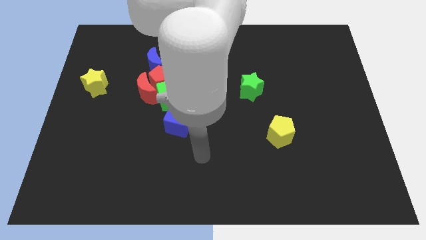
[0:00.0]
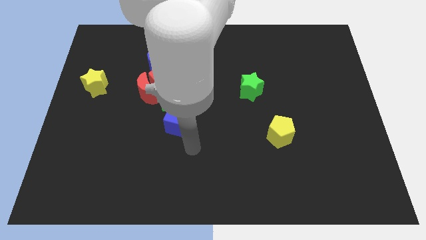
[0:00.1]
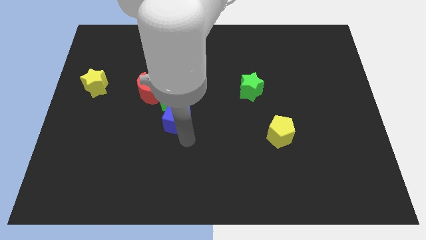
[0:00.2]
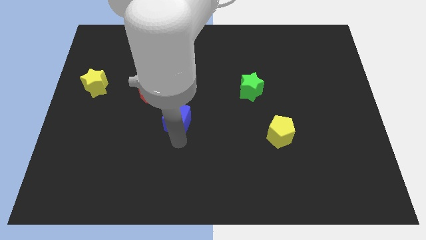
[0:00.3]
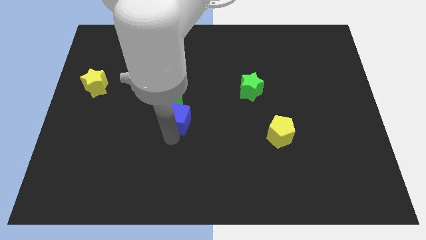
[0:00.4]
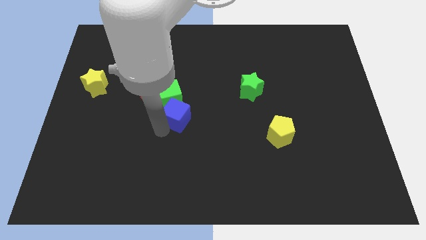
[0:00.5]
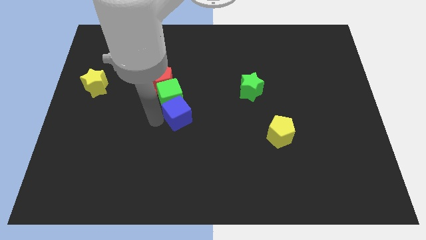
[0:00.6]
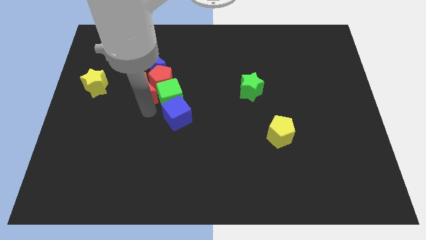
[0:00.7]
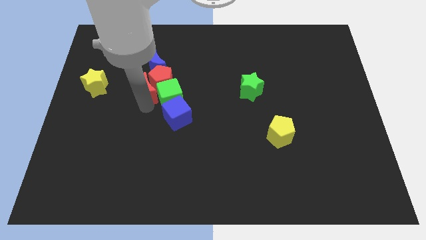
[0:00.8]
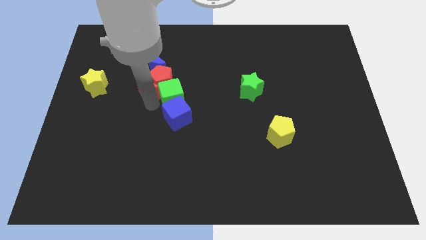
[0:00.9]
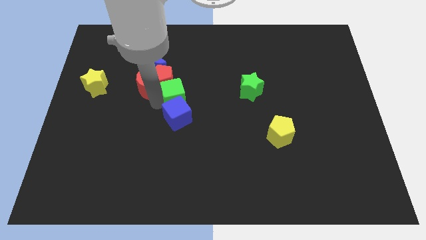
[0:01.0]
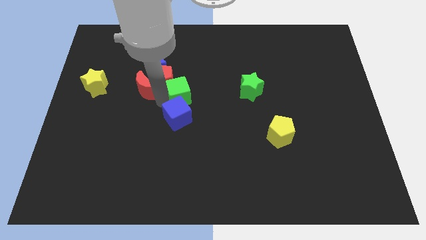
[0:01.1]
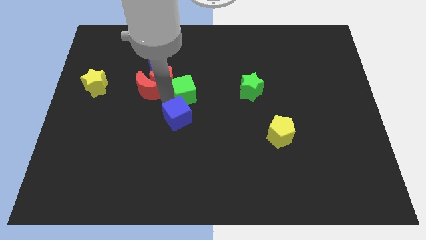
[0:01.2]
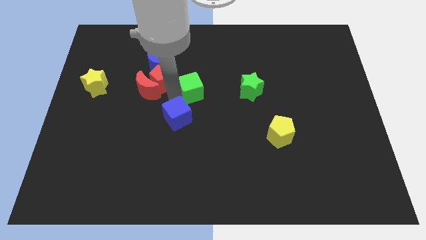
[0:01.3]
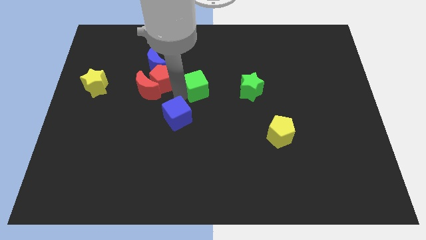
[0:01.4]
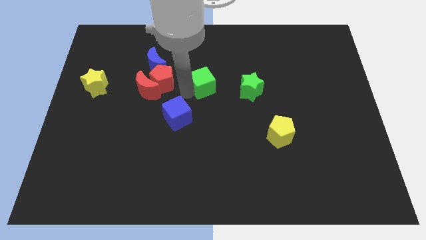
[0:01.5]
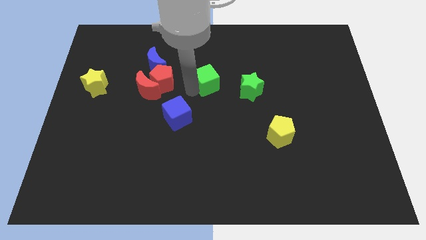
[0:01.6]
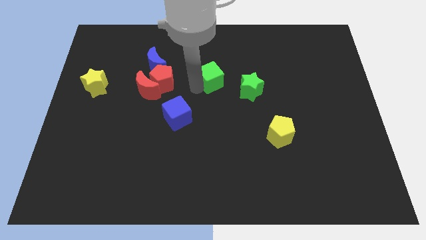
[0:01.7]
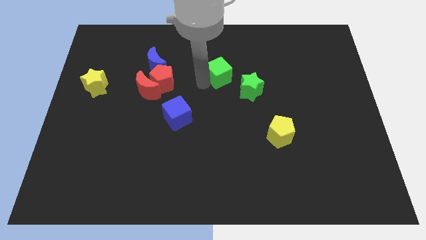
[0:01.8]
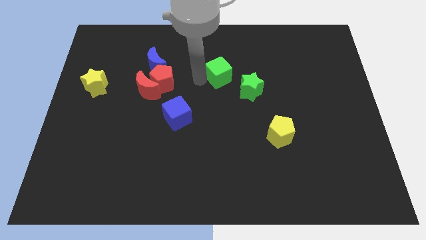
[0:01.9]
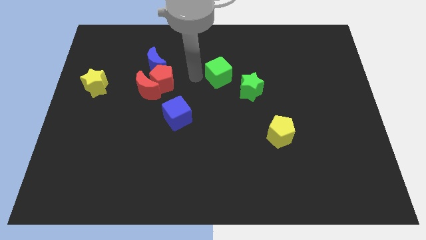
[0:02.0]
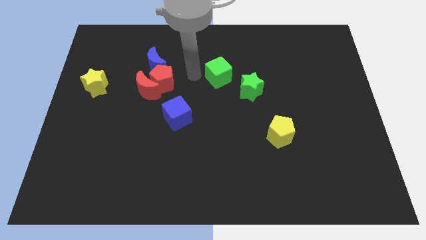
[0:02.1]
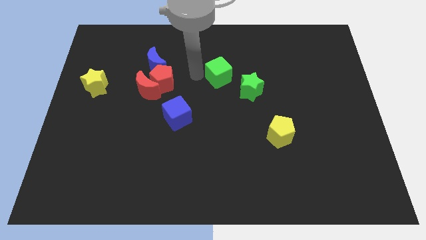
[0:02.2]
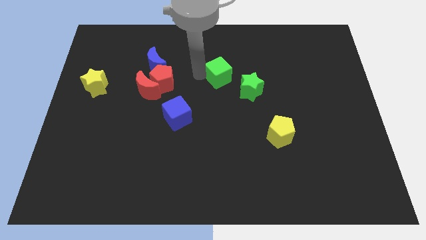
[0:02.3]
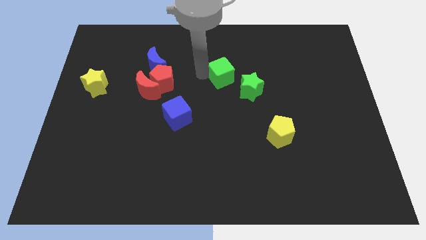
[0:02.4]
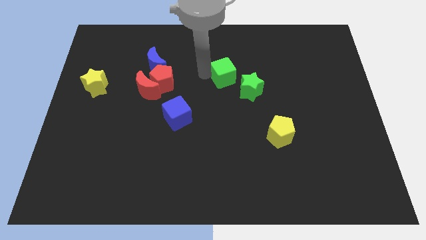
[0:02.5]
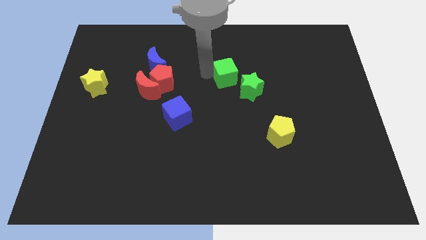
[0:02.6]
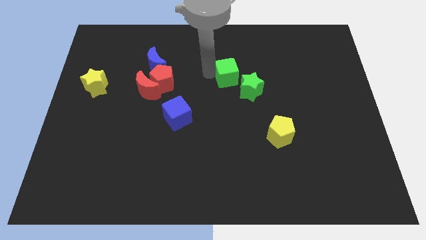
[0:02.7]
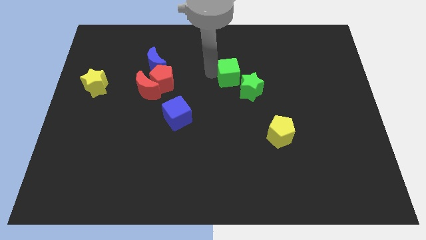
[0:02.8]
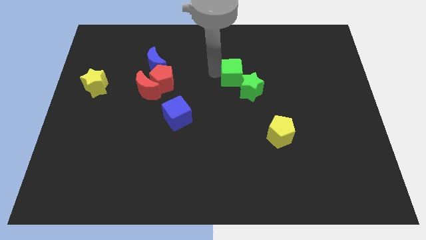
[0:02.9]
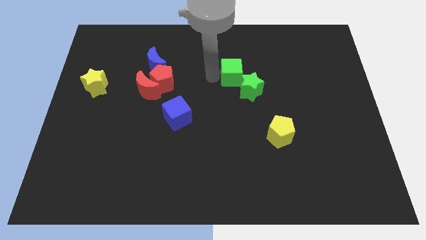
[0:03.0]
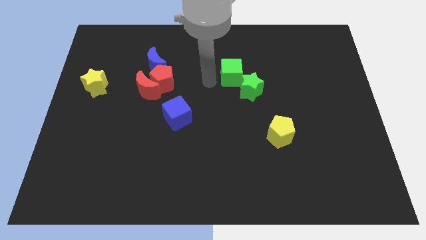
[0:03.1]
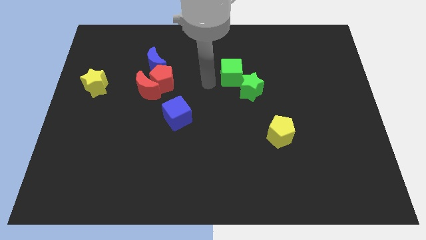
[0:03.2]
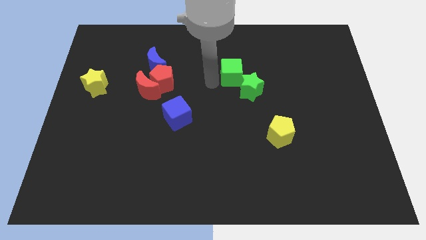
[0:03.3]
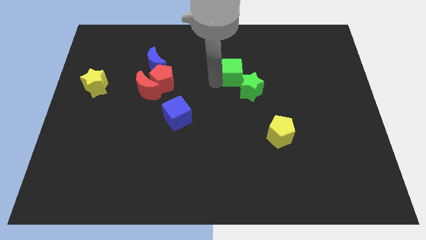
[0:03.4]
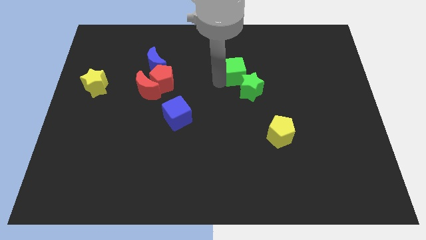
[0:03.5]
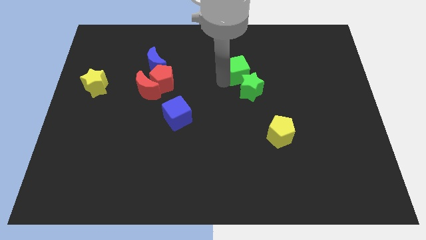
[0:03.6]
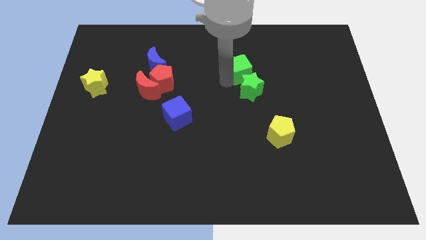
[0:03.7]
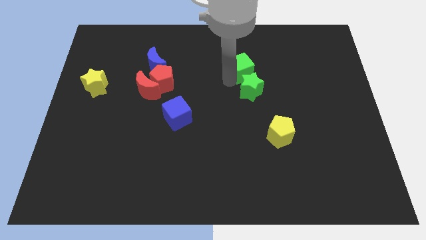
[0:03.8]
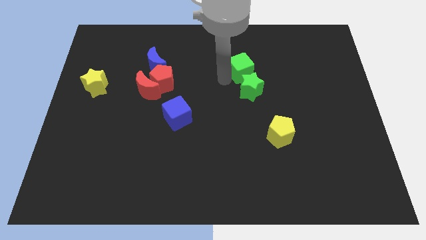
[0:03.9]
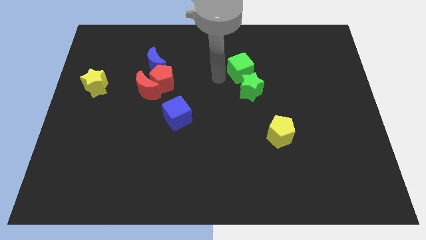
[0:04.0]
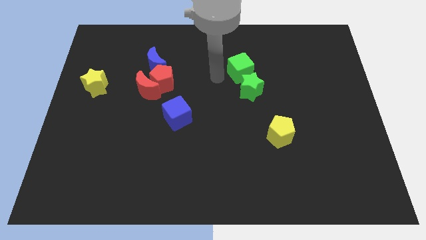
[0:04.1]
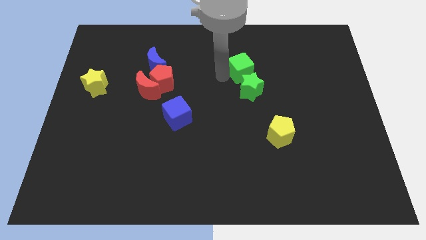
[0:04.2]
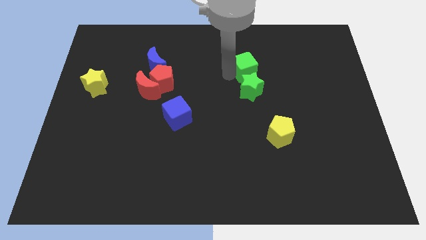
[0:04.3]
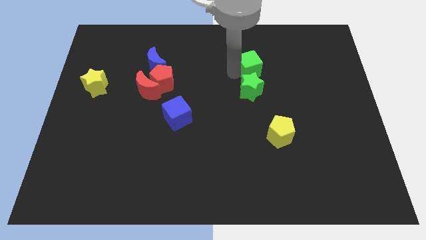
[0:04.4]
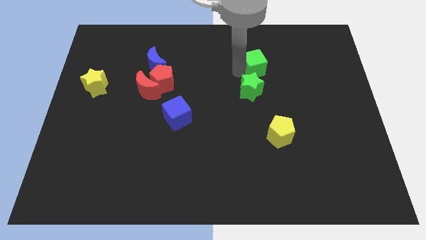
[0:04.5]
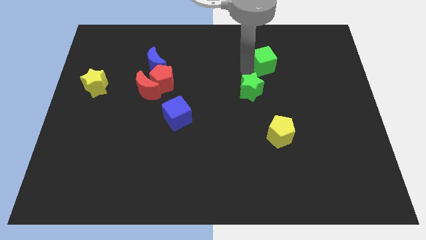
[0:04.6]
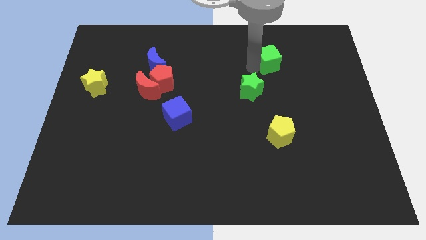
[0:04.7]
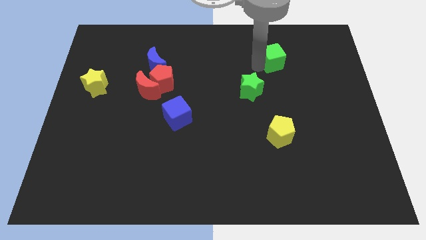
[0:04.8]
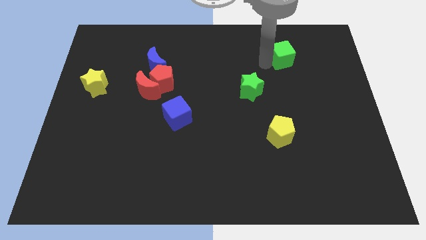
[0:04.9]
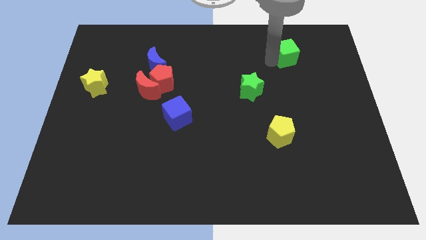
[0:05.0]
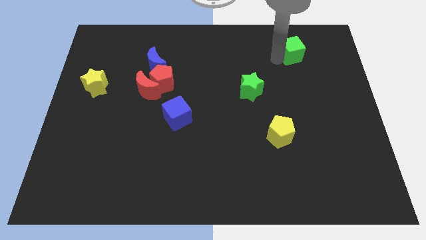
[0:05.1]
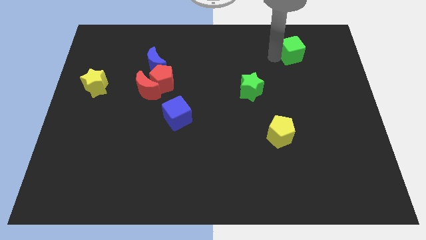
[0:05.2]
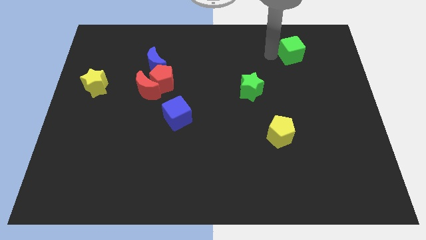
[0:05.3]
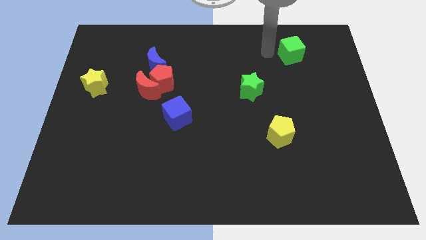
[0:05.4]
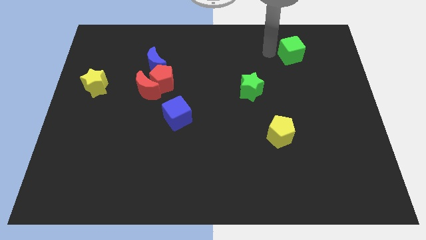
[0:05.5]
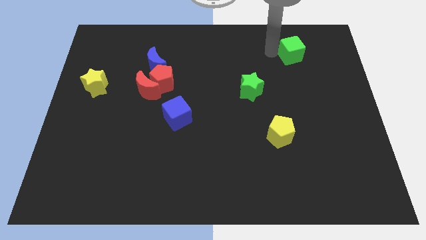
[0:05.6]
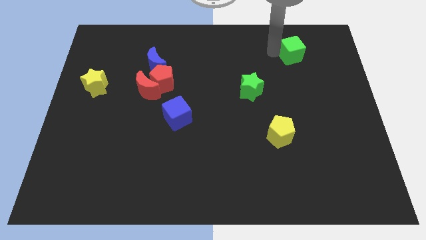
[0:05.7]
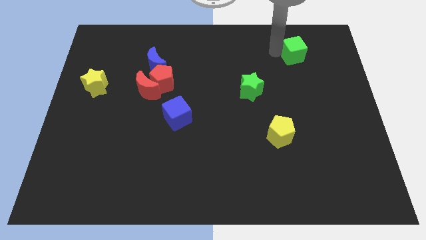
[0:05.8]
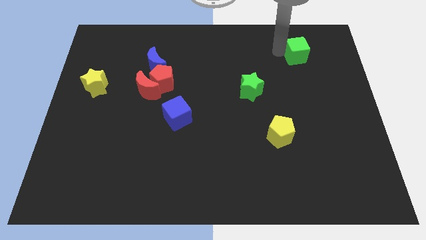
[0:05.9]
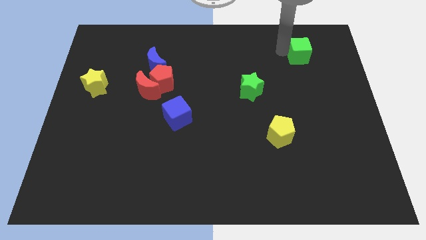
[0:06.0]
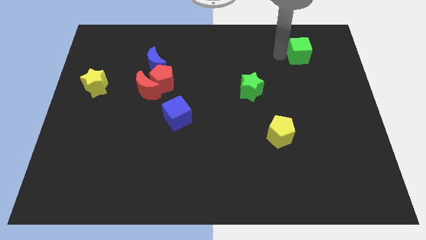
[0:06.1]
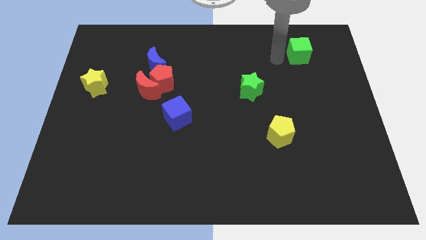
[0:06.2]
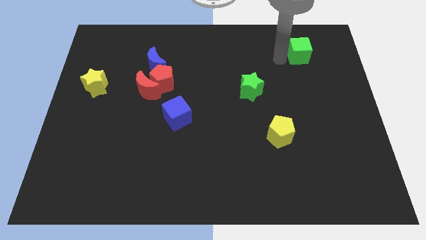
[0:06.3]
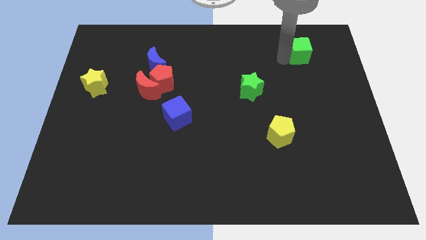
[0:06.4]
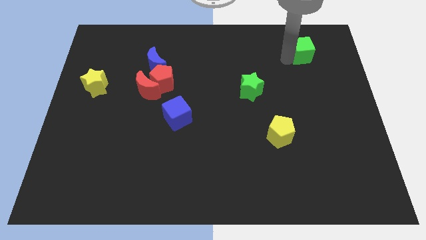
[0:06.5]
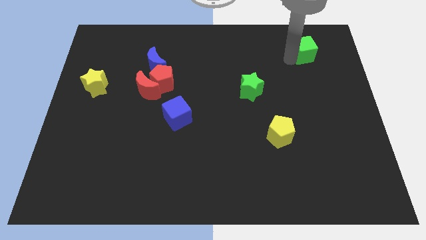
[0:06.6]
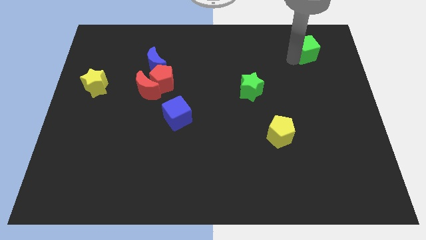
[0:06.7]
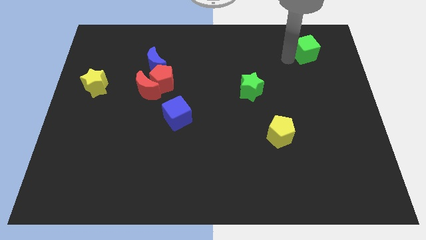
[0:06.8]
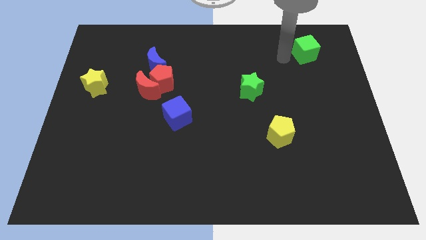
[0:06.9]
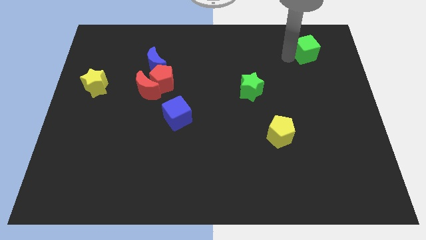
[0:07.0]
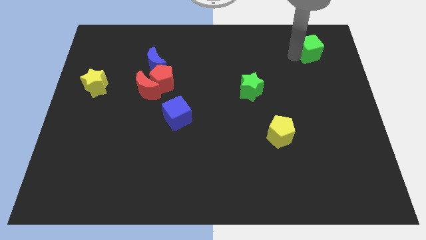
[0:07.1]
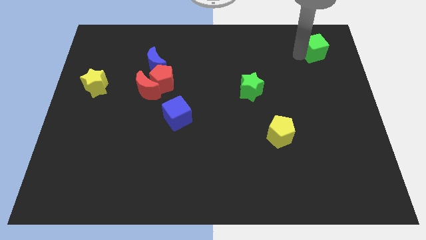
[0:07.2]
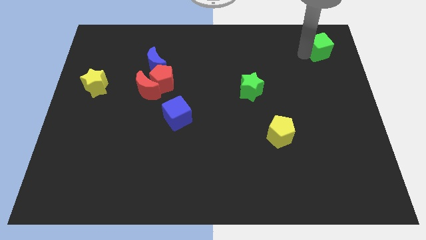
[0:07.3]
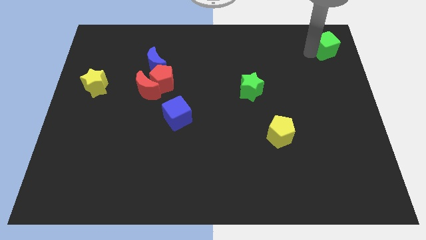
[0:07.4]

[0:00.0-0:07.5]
put the green cube to the upper right corner

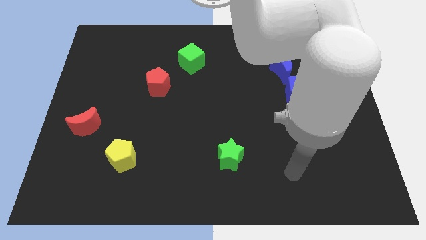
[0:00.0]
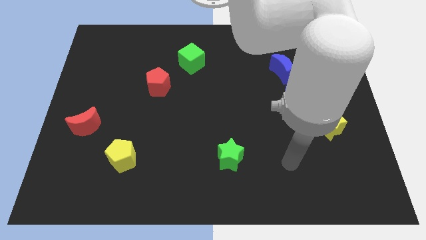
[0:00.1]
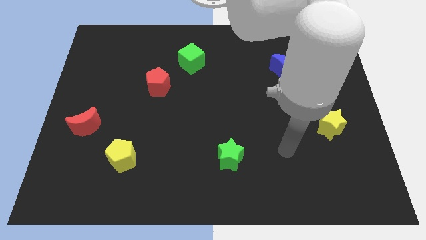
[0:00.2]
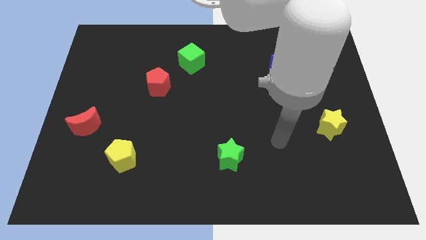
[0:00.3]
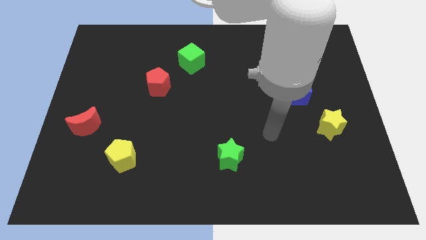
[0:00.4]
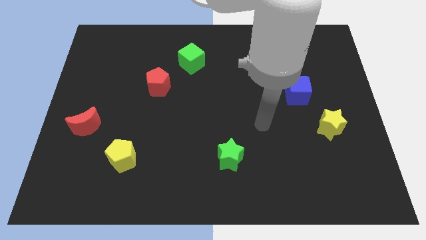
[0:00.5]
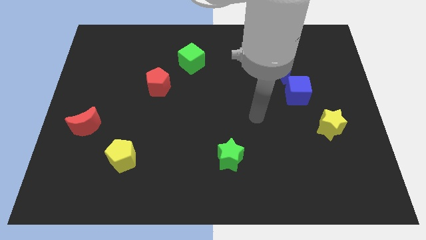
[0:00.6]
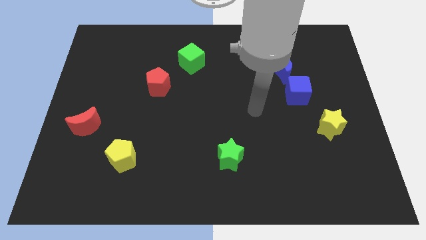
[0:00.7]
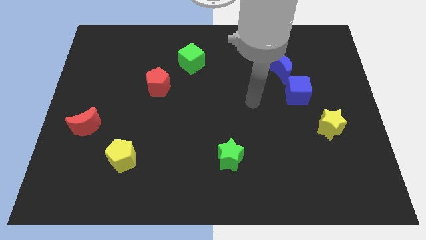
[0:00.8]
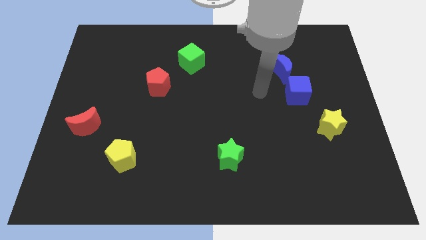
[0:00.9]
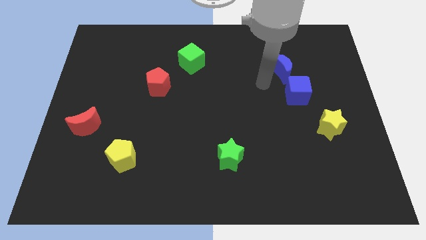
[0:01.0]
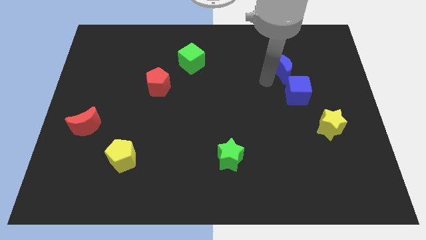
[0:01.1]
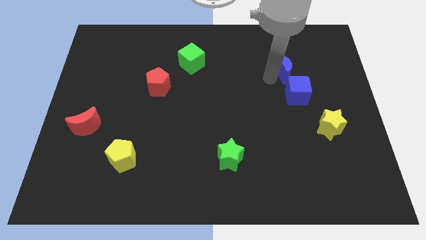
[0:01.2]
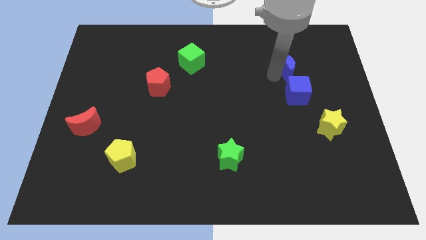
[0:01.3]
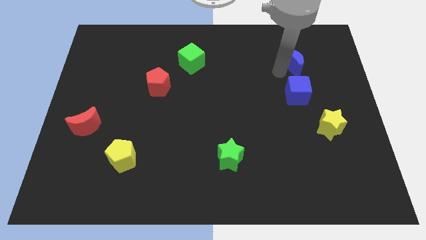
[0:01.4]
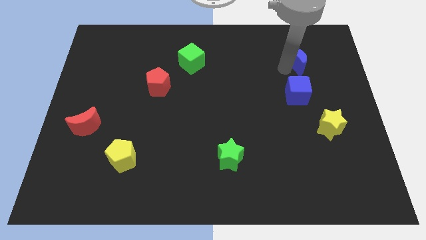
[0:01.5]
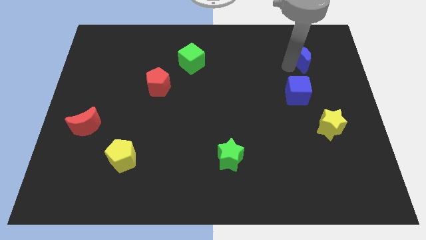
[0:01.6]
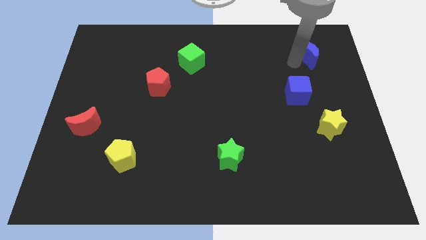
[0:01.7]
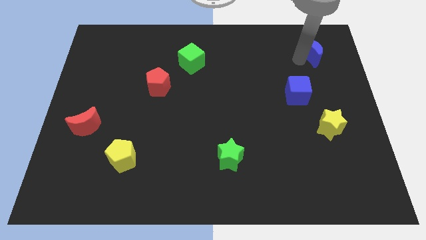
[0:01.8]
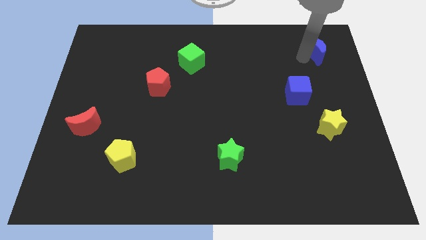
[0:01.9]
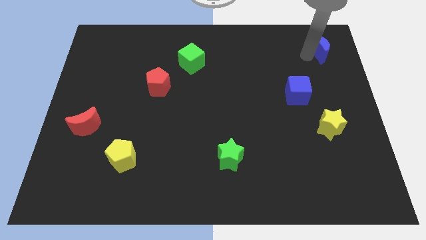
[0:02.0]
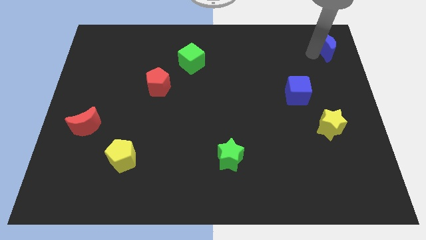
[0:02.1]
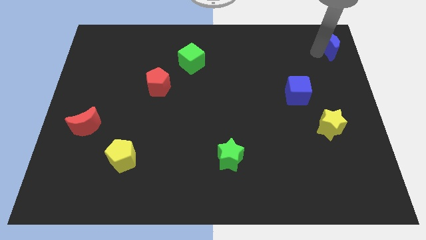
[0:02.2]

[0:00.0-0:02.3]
put the blue moon to the top right
